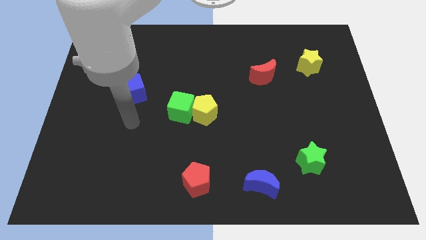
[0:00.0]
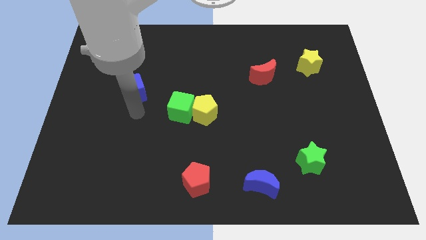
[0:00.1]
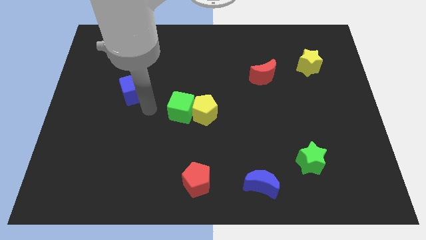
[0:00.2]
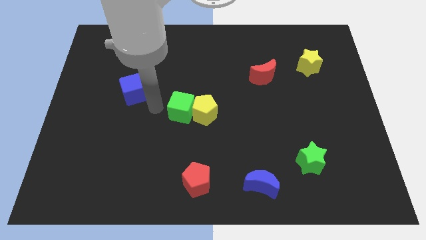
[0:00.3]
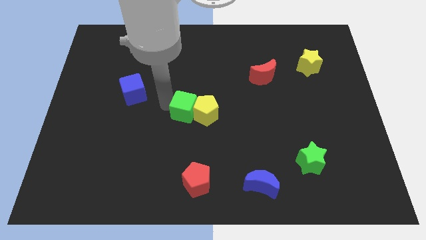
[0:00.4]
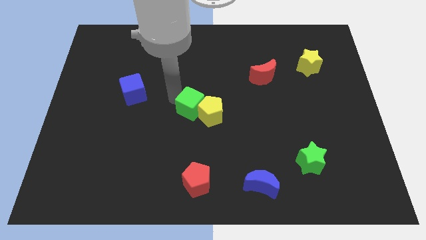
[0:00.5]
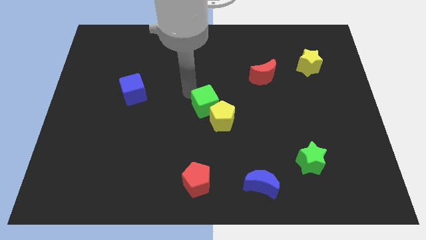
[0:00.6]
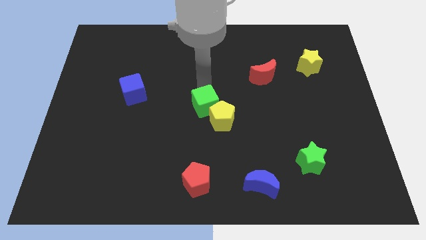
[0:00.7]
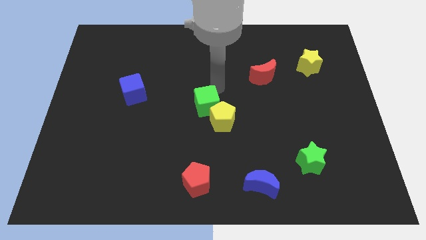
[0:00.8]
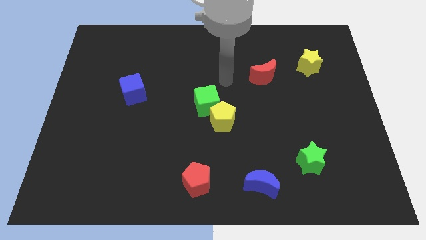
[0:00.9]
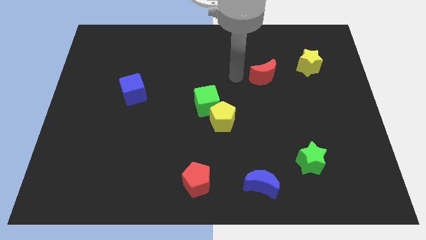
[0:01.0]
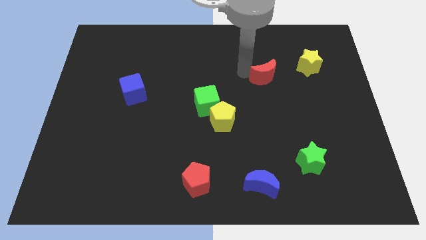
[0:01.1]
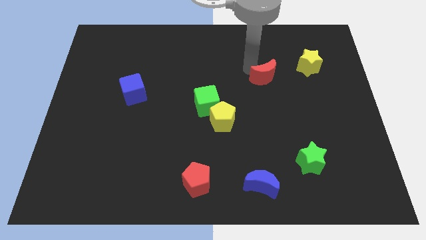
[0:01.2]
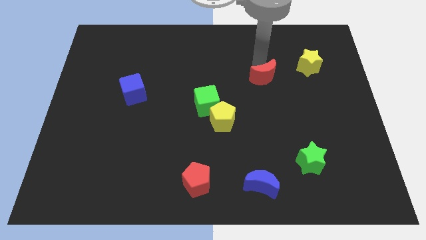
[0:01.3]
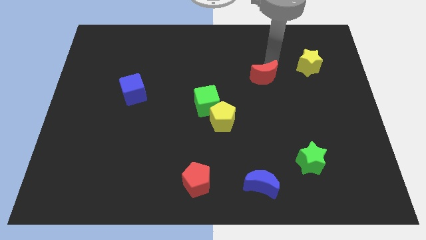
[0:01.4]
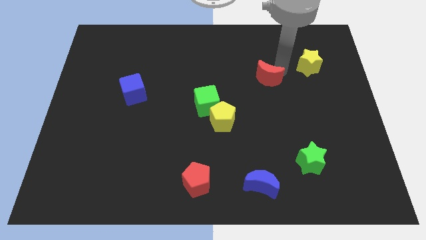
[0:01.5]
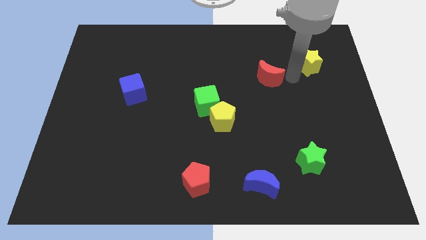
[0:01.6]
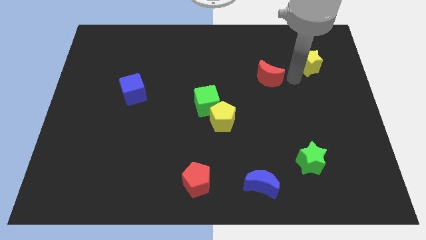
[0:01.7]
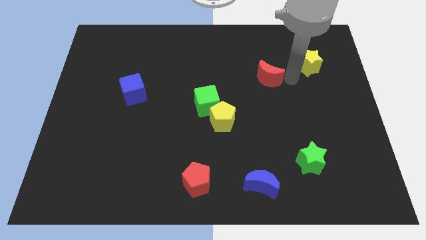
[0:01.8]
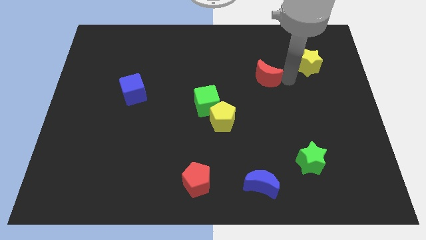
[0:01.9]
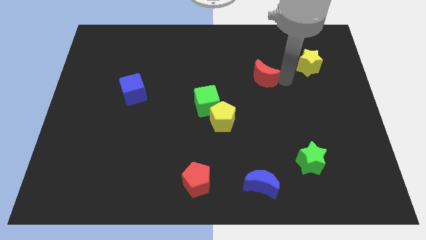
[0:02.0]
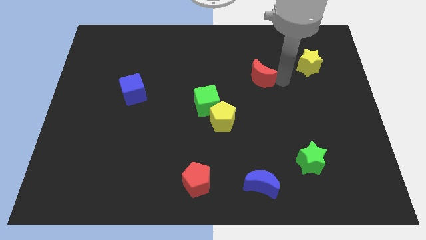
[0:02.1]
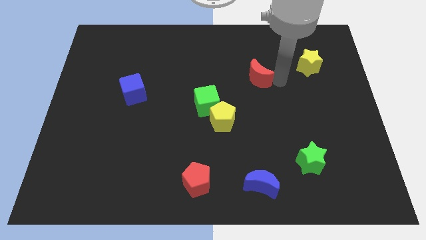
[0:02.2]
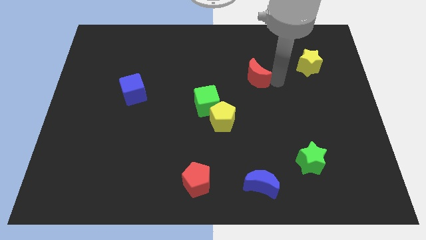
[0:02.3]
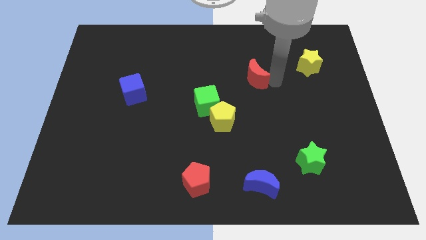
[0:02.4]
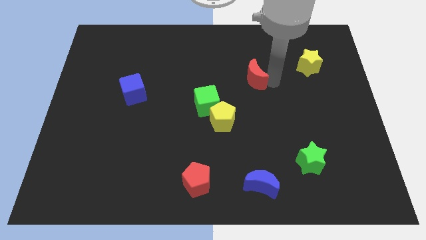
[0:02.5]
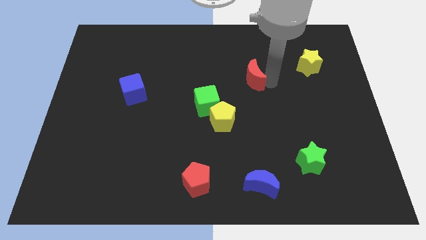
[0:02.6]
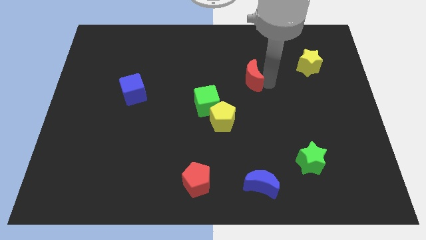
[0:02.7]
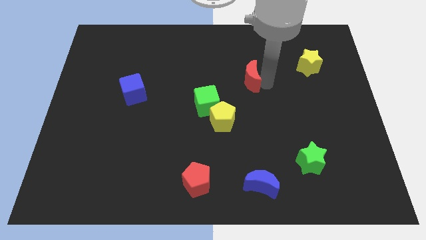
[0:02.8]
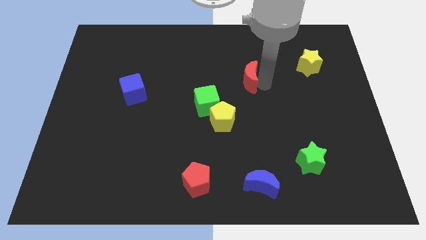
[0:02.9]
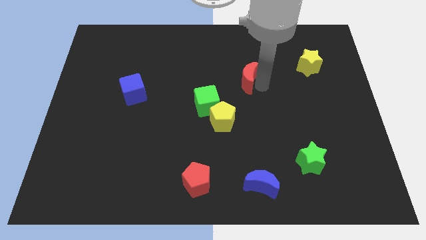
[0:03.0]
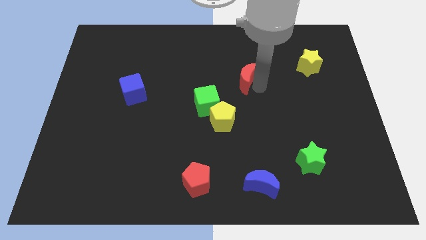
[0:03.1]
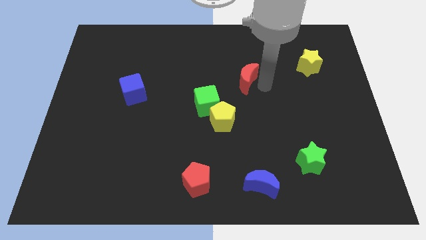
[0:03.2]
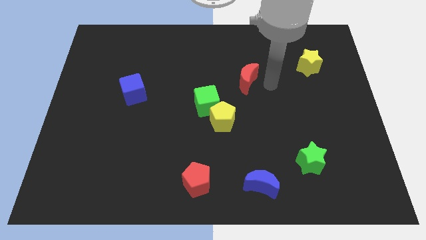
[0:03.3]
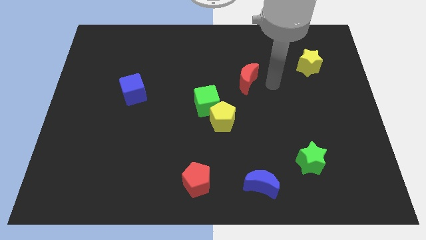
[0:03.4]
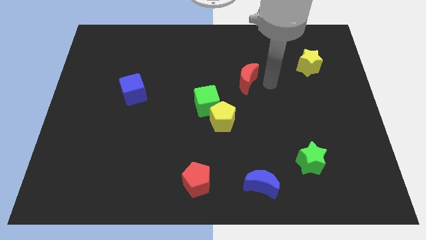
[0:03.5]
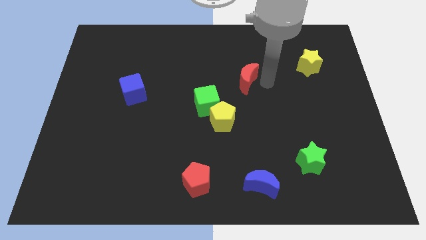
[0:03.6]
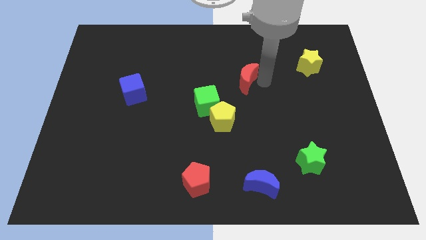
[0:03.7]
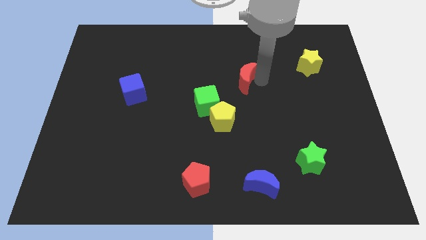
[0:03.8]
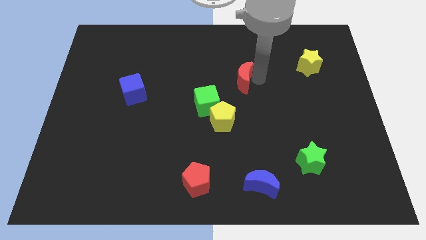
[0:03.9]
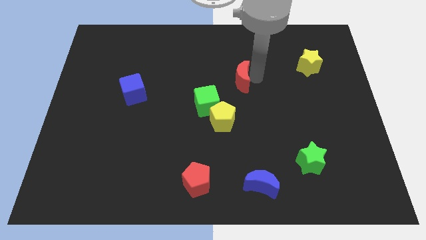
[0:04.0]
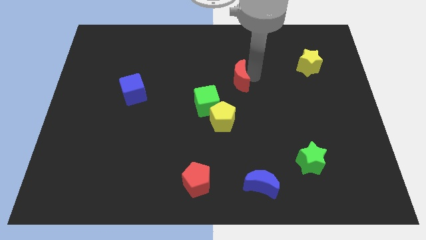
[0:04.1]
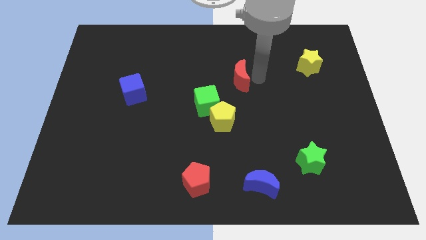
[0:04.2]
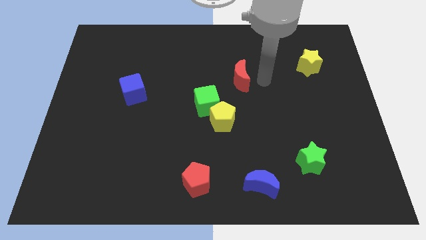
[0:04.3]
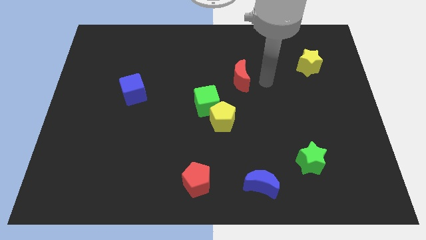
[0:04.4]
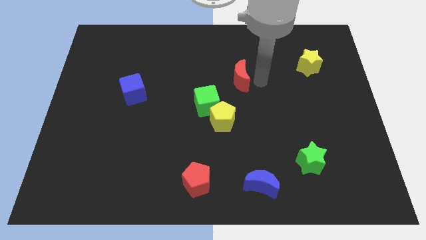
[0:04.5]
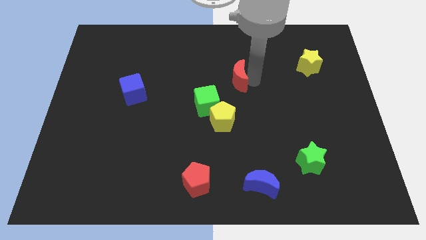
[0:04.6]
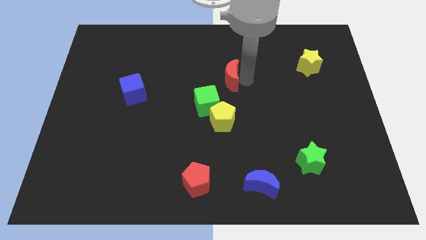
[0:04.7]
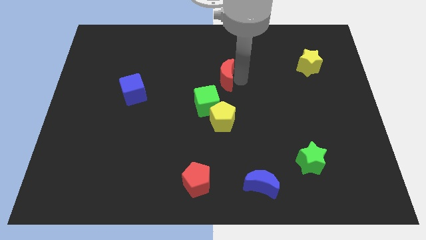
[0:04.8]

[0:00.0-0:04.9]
push the red moon above the green cube

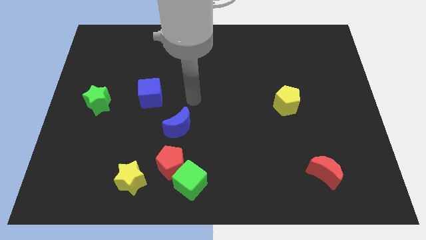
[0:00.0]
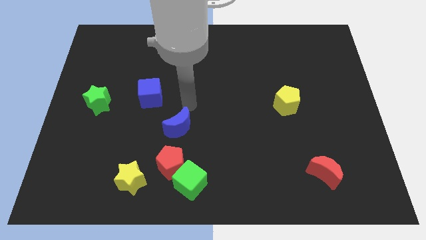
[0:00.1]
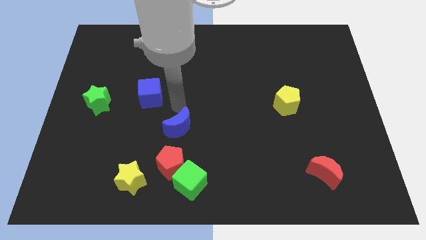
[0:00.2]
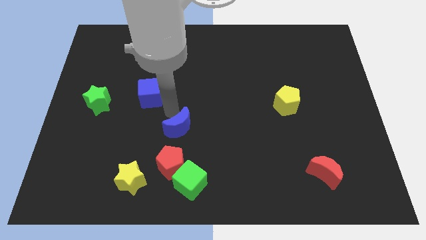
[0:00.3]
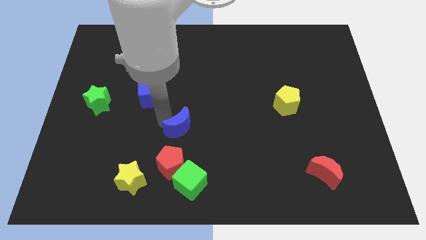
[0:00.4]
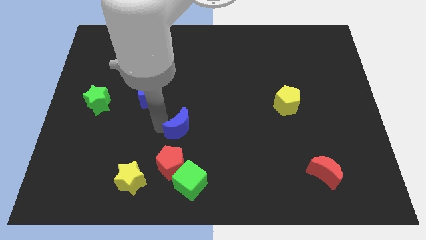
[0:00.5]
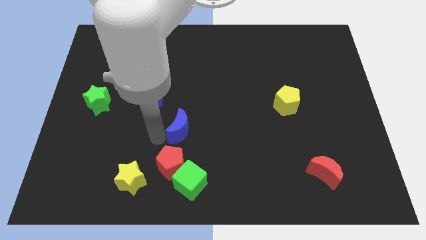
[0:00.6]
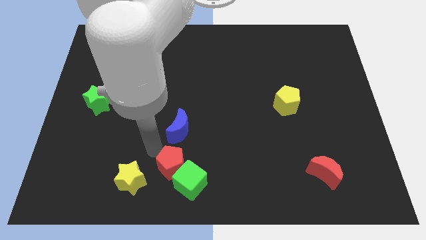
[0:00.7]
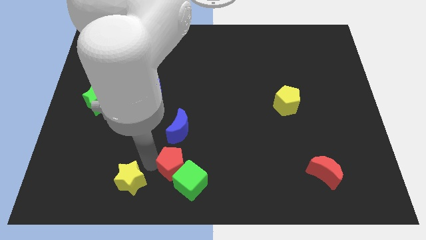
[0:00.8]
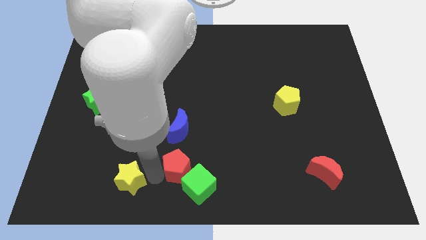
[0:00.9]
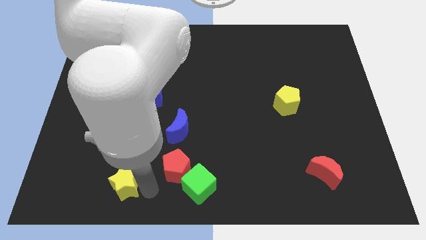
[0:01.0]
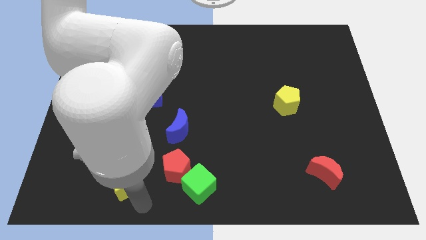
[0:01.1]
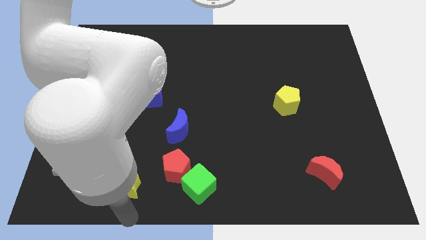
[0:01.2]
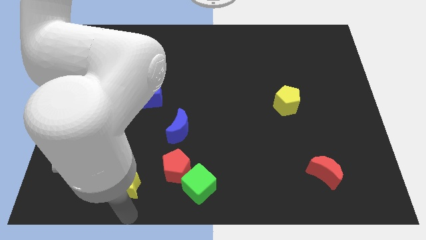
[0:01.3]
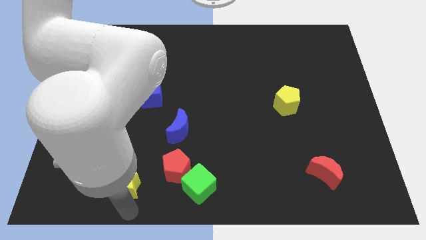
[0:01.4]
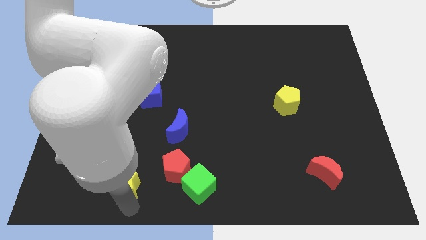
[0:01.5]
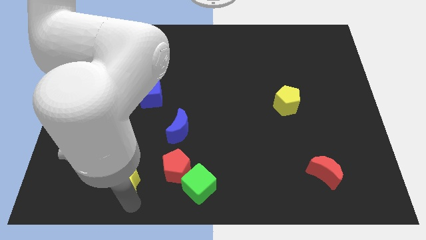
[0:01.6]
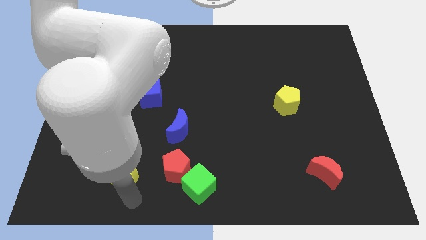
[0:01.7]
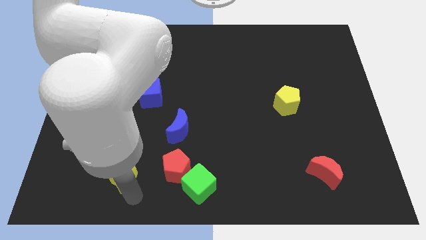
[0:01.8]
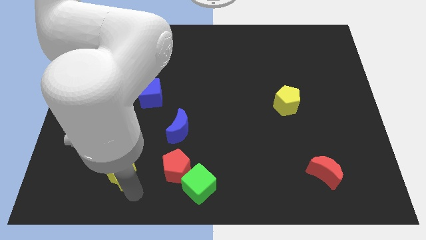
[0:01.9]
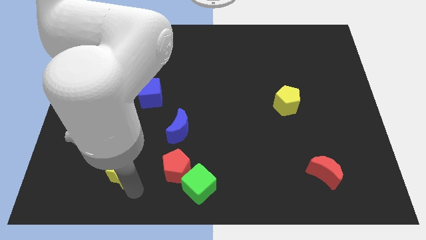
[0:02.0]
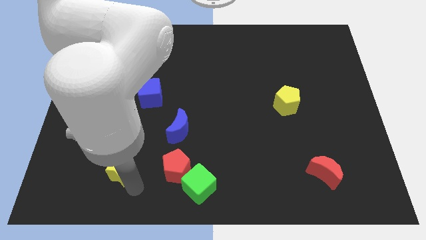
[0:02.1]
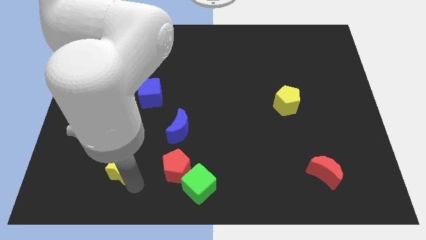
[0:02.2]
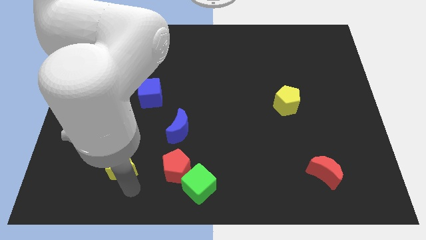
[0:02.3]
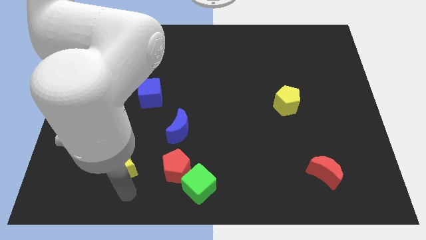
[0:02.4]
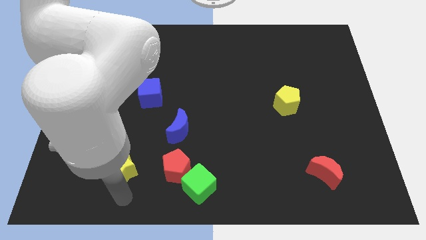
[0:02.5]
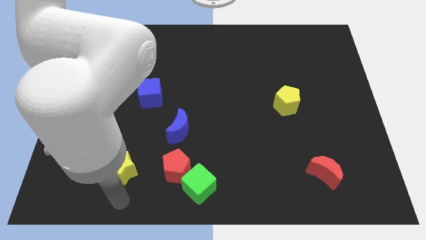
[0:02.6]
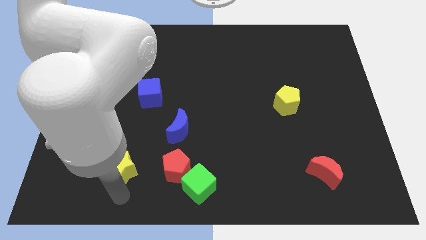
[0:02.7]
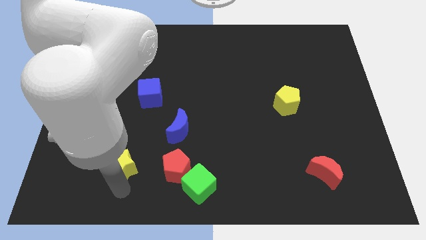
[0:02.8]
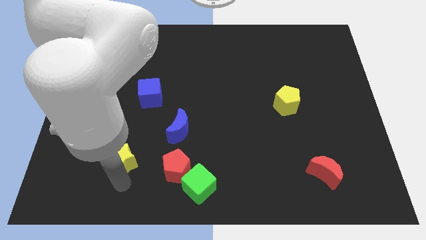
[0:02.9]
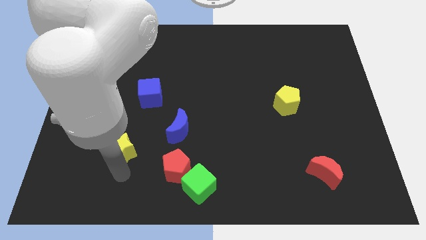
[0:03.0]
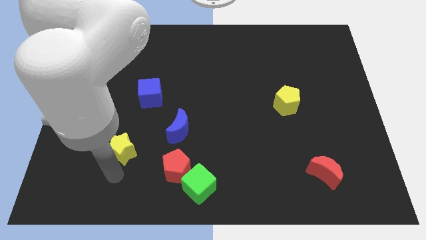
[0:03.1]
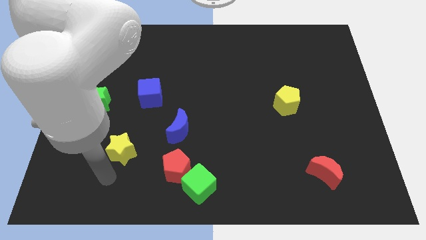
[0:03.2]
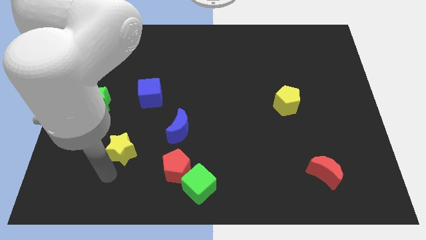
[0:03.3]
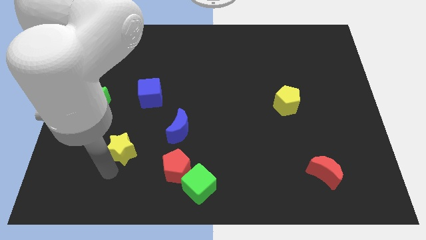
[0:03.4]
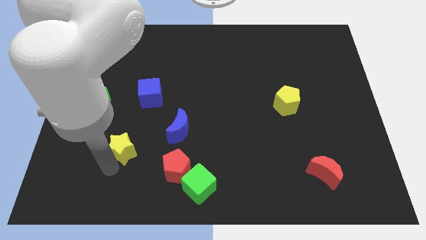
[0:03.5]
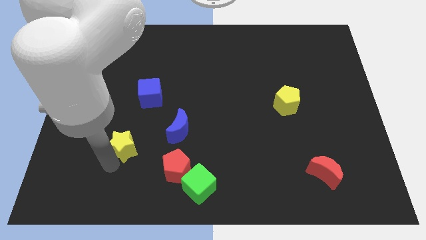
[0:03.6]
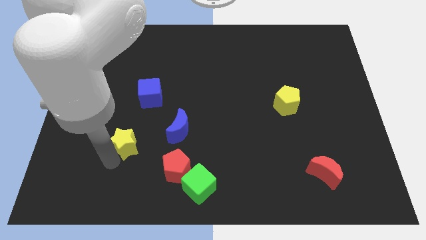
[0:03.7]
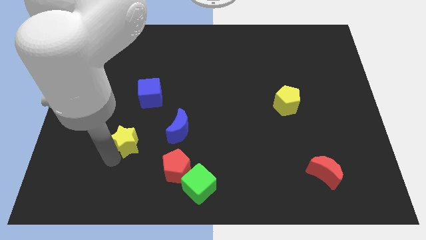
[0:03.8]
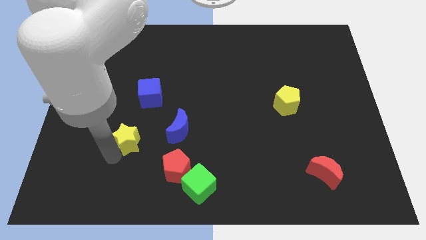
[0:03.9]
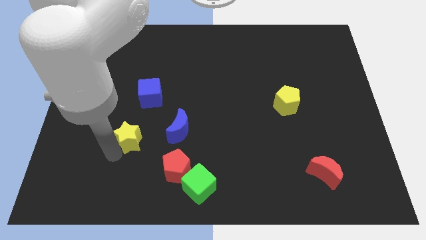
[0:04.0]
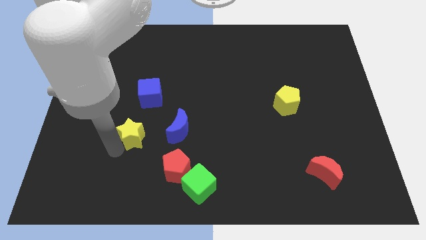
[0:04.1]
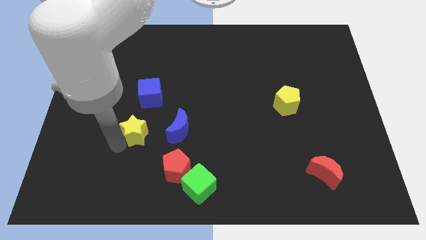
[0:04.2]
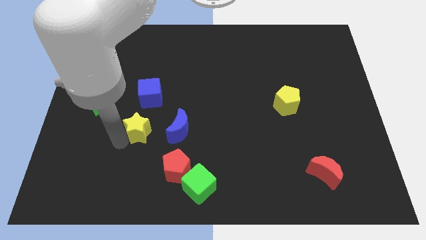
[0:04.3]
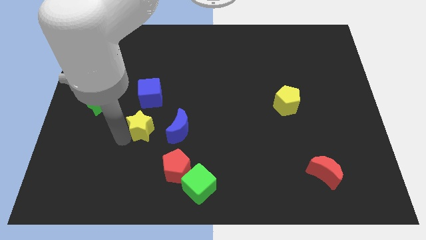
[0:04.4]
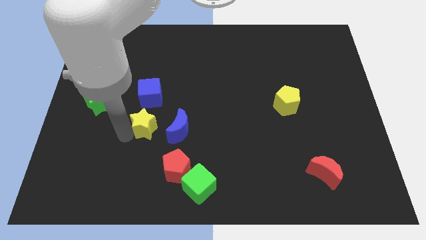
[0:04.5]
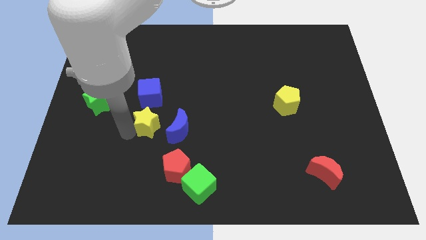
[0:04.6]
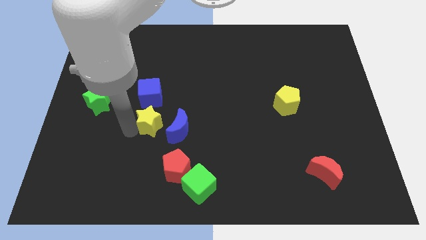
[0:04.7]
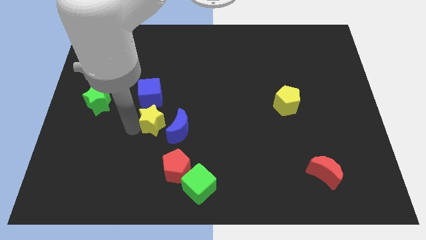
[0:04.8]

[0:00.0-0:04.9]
push the yellow star to the bottom right of the blue cube
